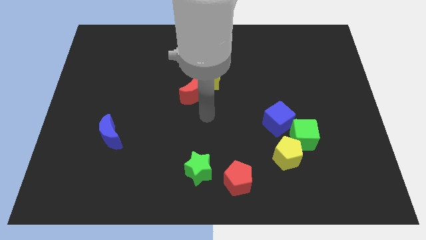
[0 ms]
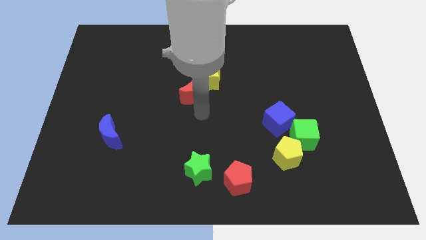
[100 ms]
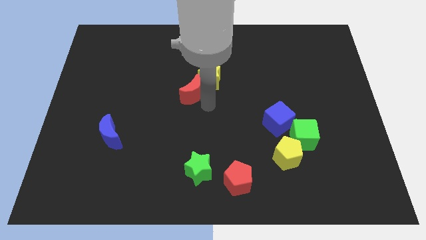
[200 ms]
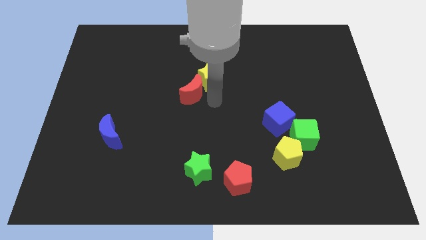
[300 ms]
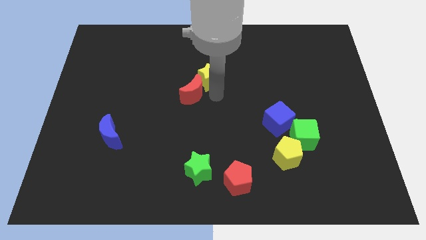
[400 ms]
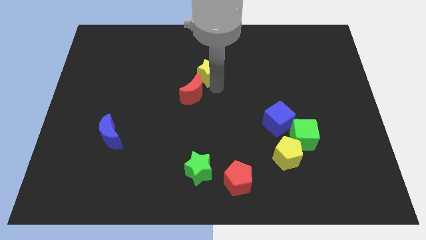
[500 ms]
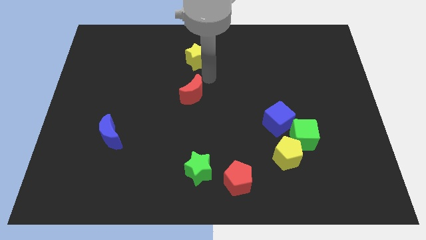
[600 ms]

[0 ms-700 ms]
separate the red moon from the yellow star

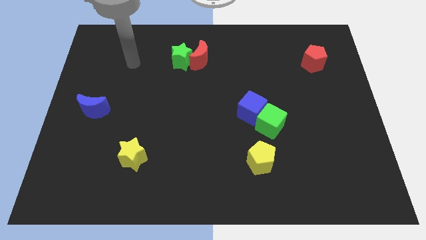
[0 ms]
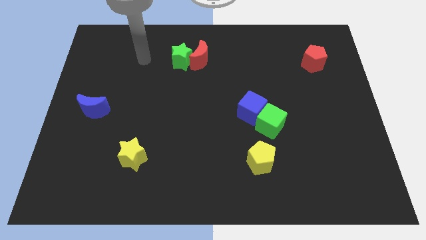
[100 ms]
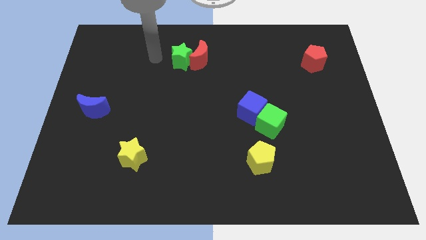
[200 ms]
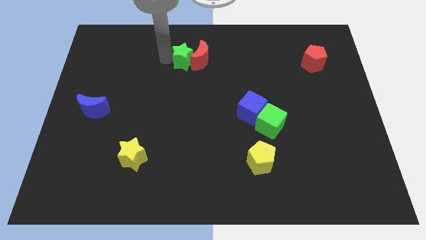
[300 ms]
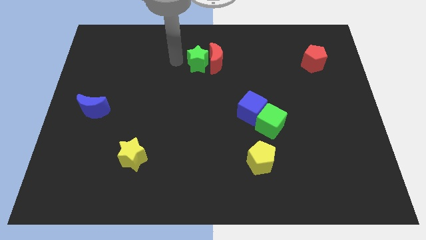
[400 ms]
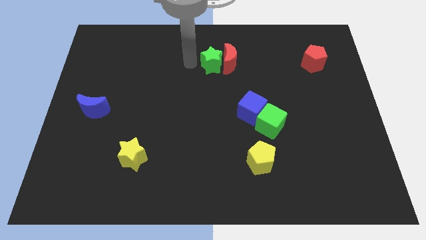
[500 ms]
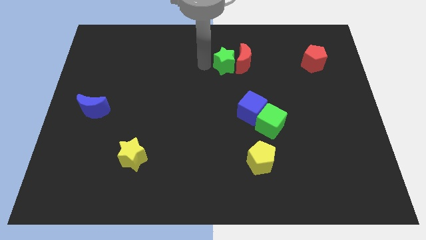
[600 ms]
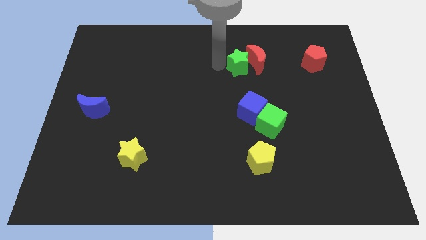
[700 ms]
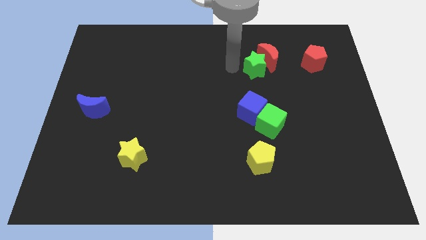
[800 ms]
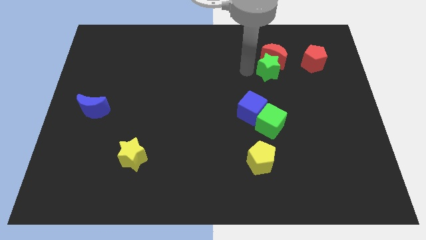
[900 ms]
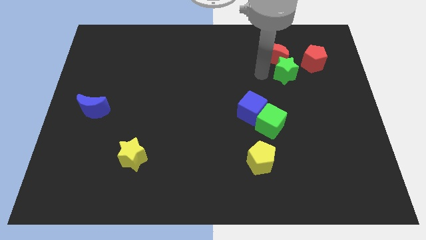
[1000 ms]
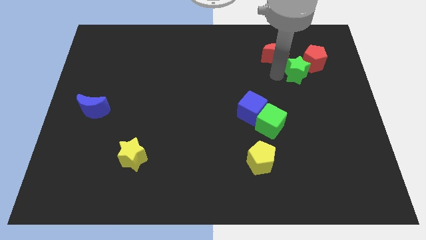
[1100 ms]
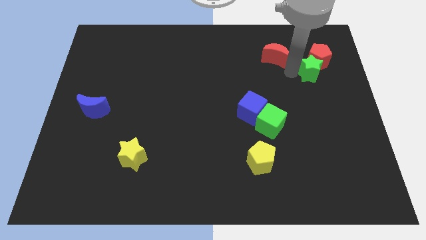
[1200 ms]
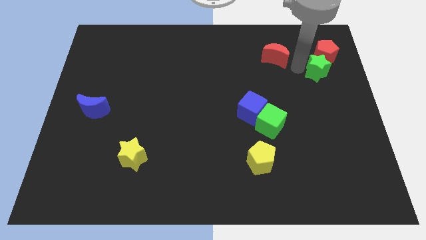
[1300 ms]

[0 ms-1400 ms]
pull the red moon apart from the green star

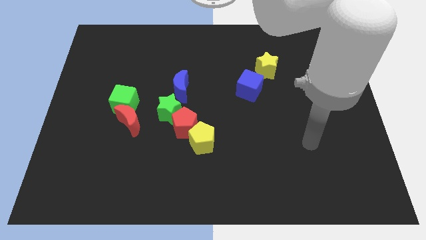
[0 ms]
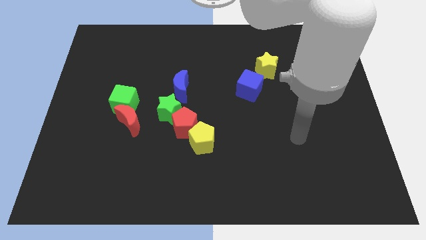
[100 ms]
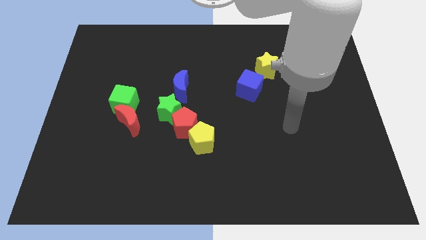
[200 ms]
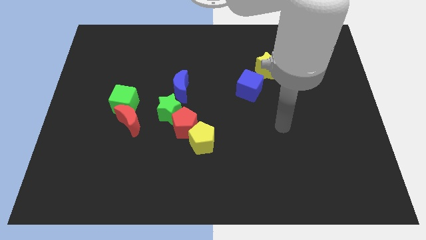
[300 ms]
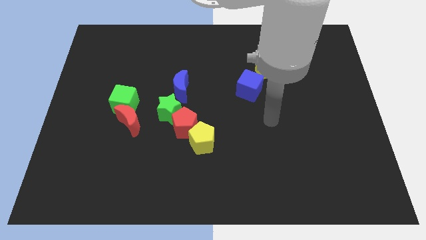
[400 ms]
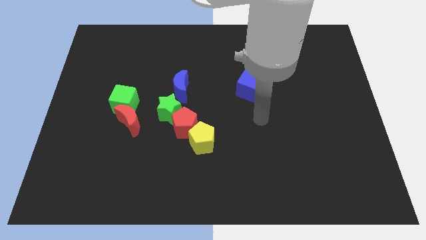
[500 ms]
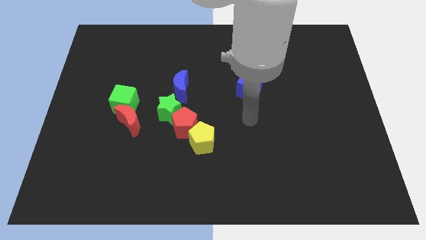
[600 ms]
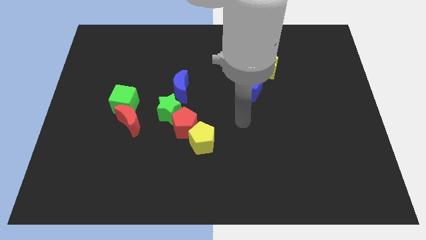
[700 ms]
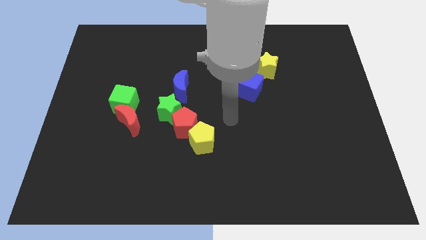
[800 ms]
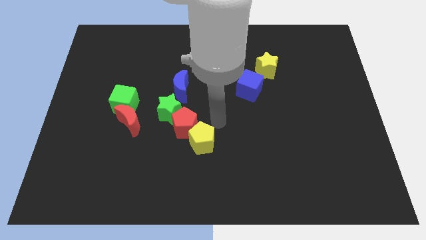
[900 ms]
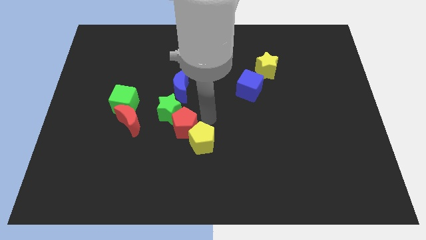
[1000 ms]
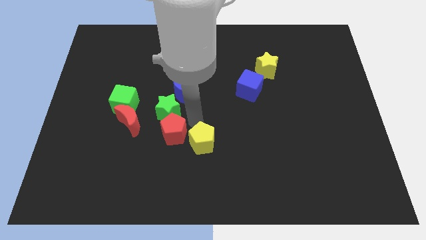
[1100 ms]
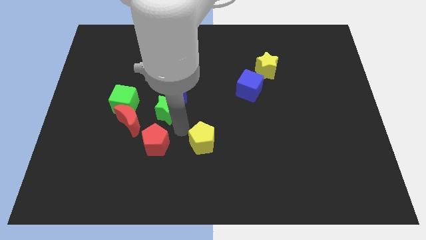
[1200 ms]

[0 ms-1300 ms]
move the yellow pentagon away from the red pentagon

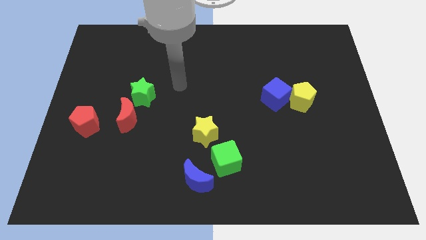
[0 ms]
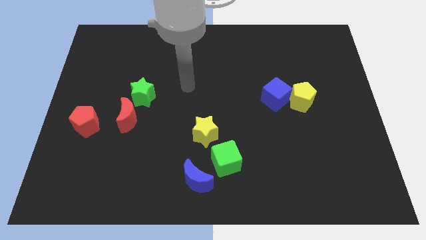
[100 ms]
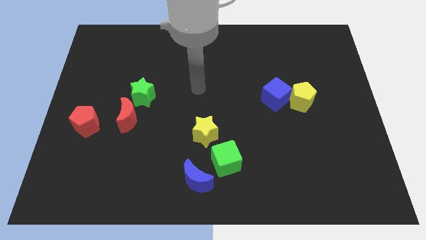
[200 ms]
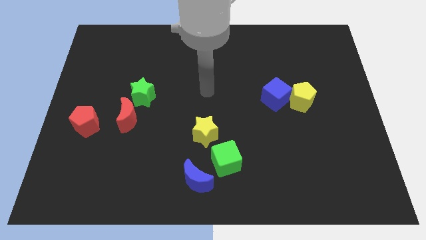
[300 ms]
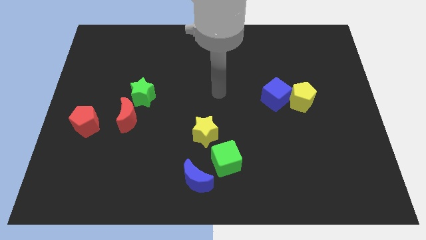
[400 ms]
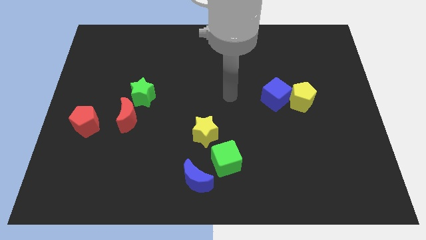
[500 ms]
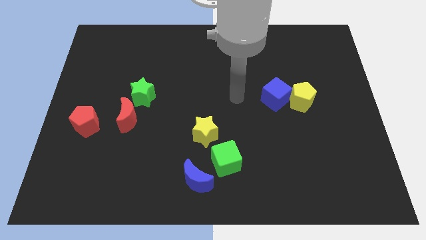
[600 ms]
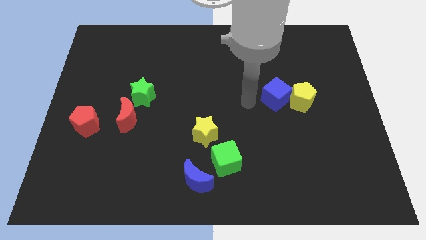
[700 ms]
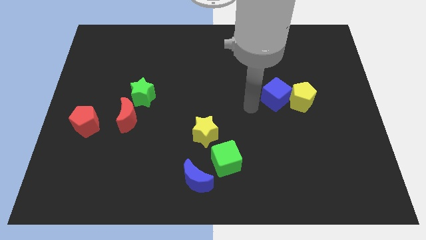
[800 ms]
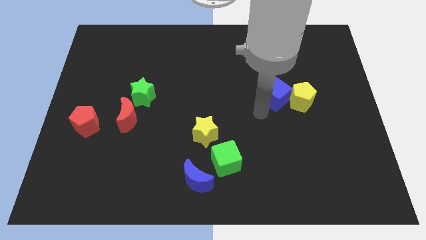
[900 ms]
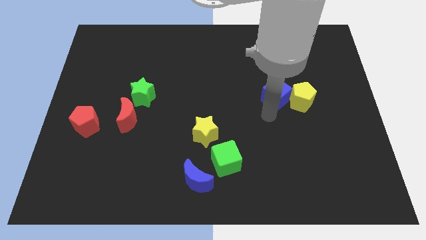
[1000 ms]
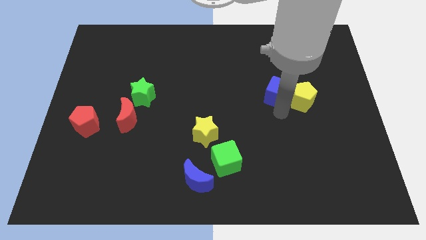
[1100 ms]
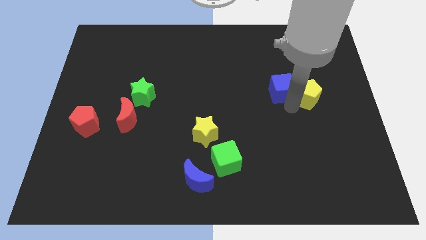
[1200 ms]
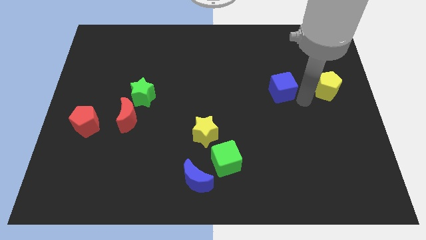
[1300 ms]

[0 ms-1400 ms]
pull the blue cube apart from the yellow pentagon

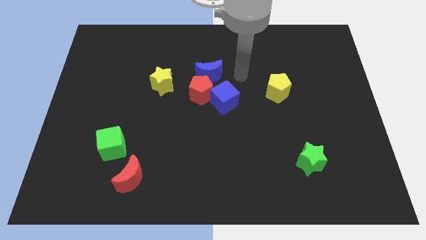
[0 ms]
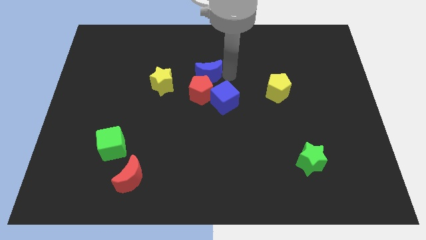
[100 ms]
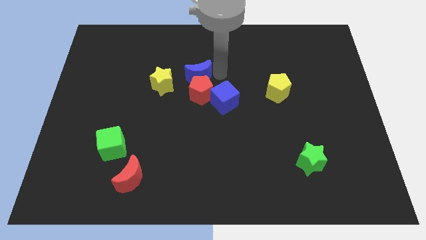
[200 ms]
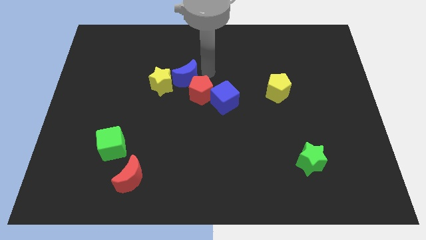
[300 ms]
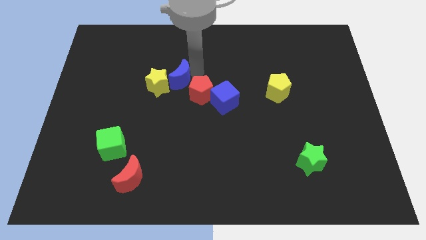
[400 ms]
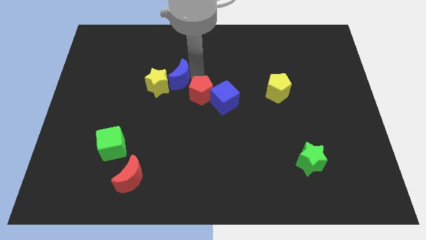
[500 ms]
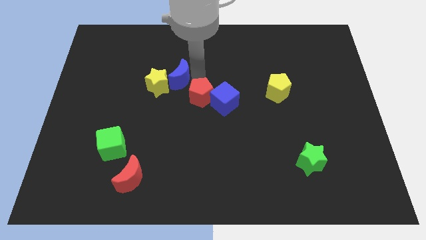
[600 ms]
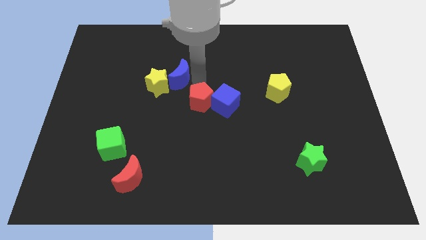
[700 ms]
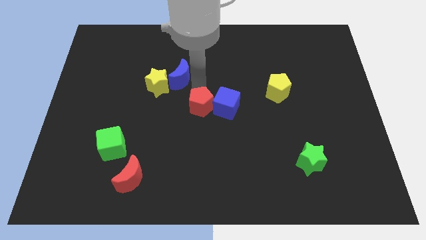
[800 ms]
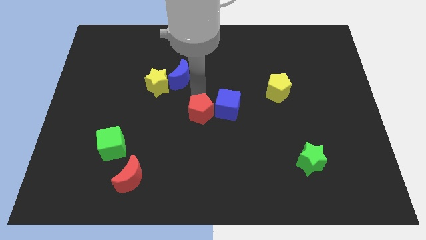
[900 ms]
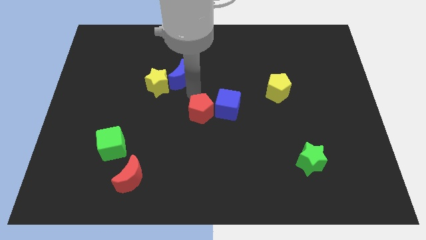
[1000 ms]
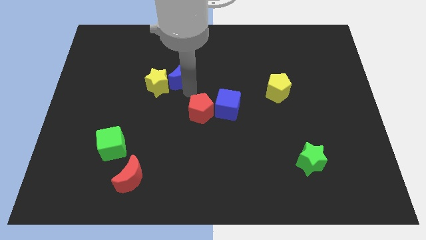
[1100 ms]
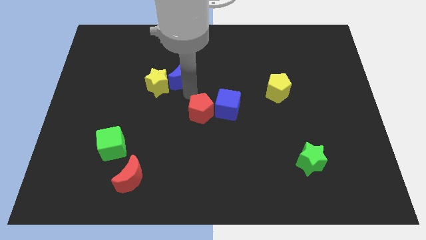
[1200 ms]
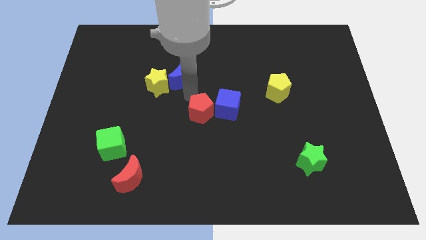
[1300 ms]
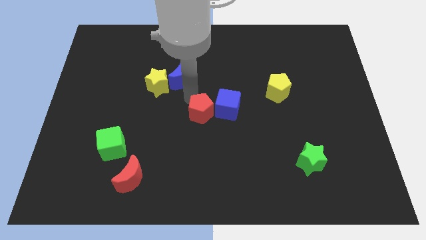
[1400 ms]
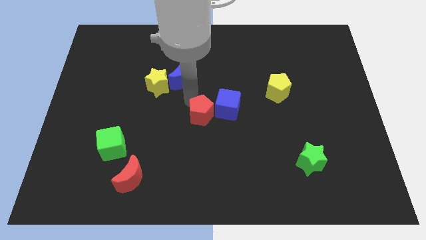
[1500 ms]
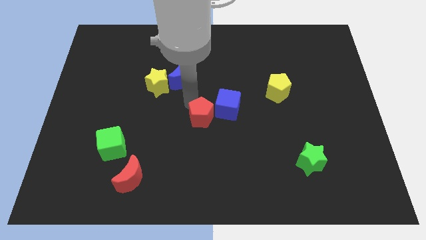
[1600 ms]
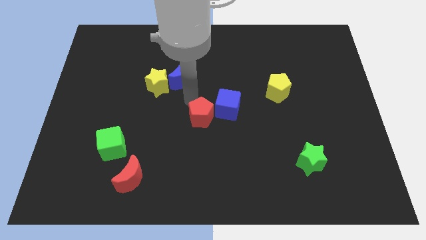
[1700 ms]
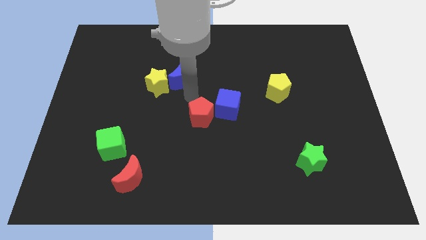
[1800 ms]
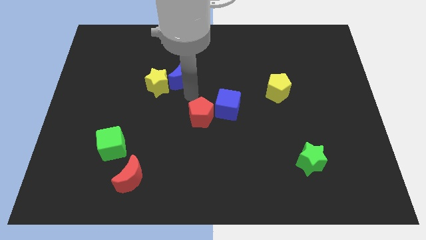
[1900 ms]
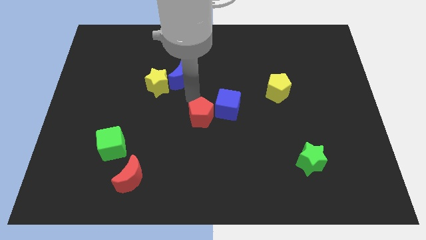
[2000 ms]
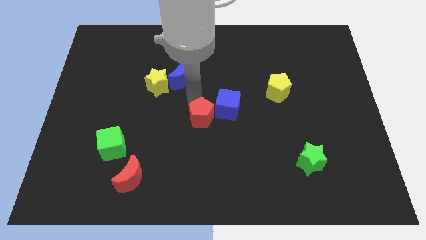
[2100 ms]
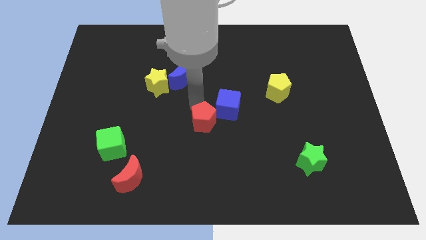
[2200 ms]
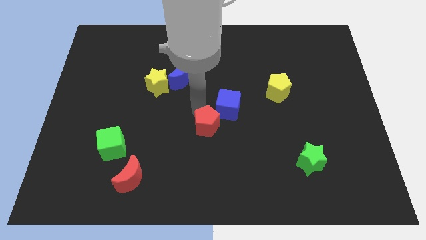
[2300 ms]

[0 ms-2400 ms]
pull the red pentagon apart from the group of blocks

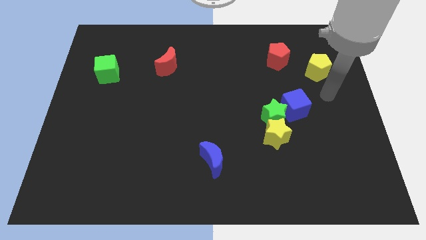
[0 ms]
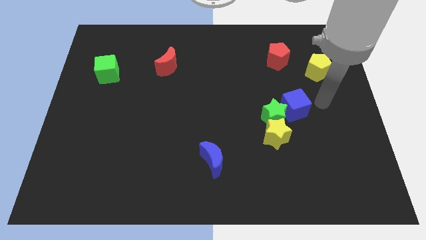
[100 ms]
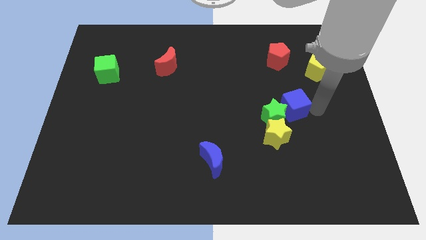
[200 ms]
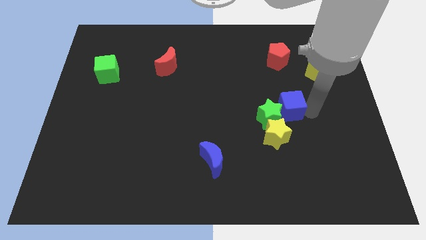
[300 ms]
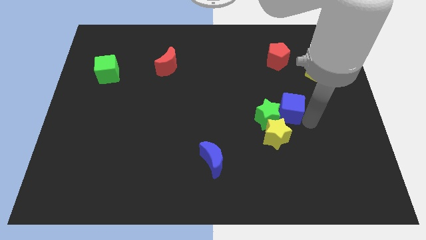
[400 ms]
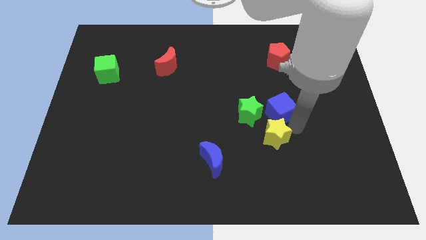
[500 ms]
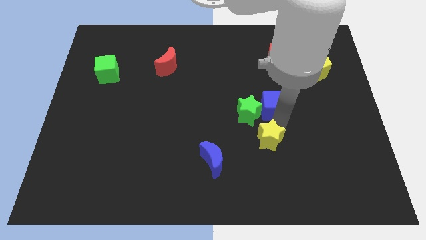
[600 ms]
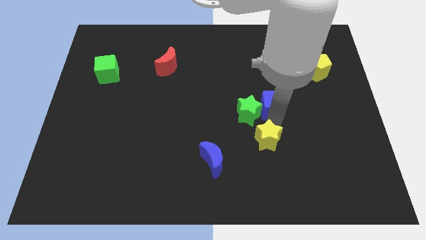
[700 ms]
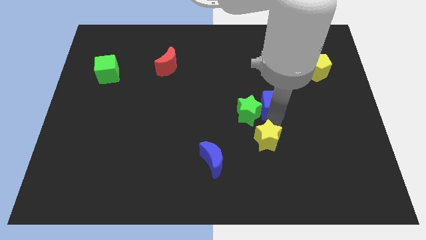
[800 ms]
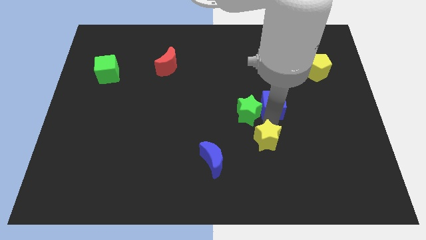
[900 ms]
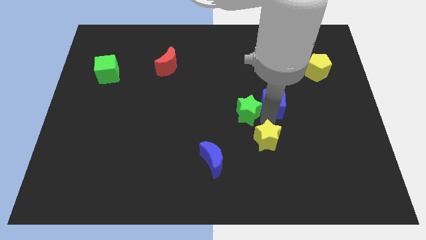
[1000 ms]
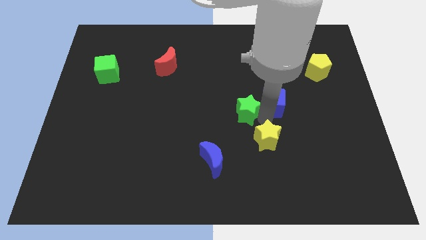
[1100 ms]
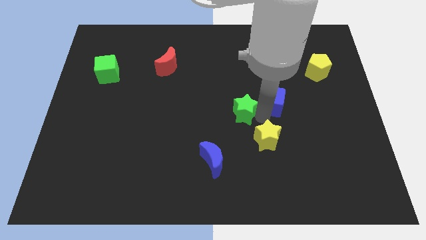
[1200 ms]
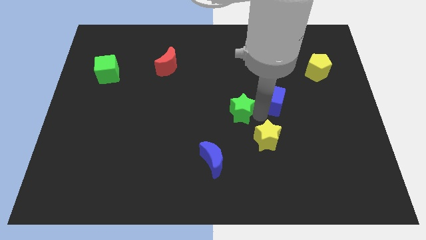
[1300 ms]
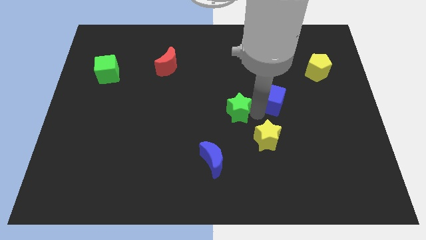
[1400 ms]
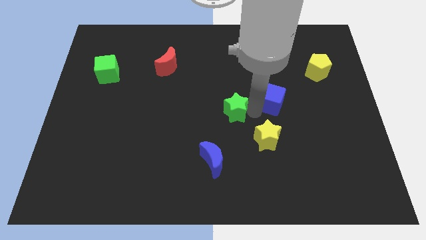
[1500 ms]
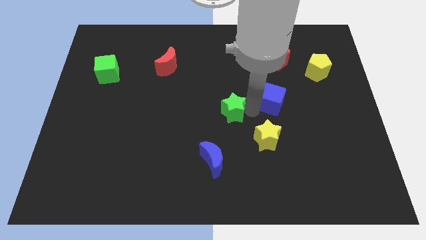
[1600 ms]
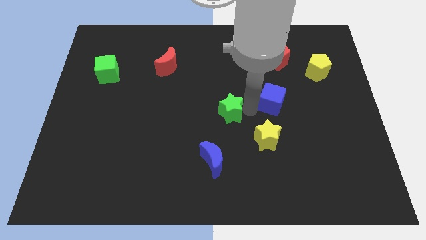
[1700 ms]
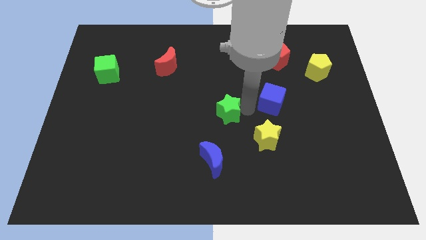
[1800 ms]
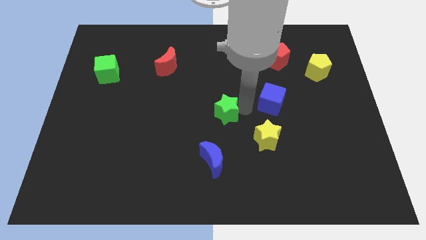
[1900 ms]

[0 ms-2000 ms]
separate the green star from the yellow star and blue cube
